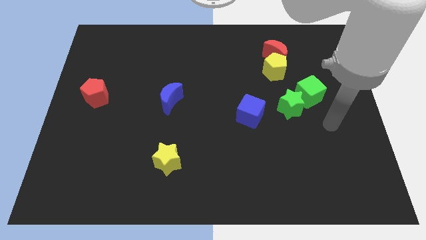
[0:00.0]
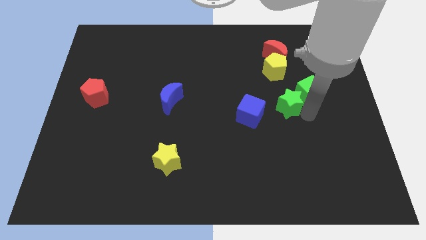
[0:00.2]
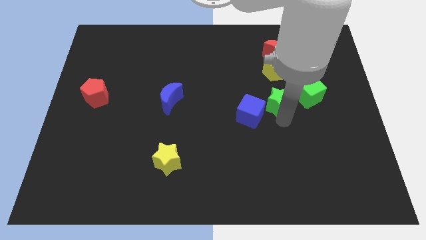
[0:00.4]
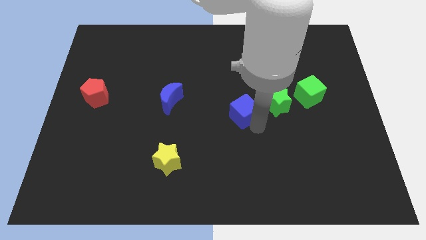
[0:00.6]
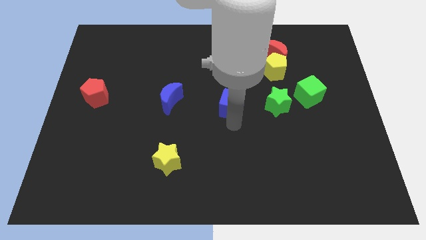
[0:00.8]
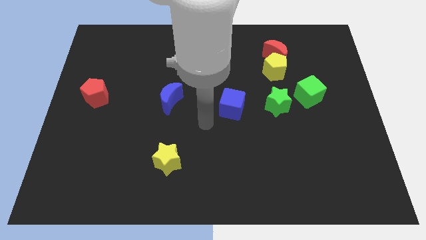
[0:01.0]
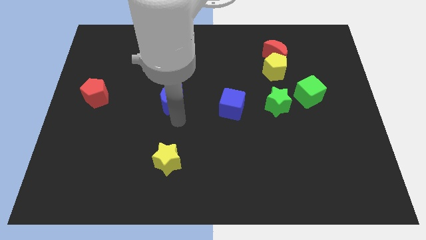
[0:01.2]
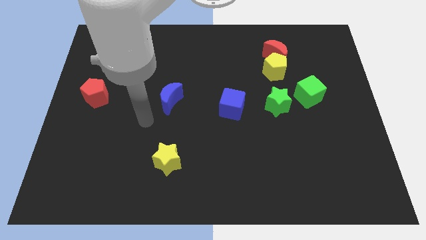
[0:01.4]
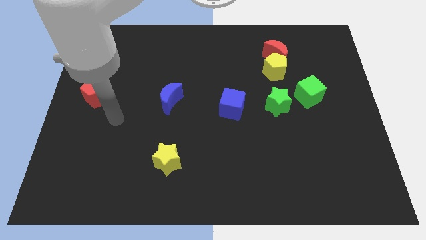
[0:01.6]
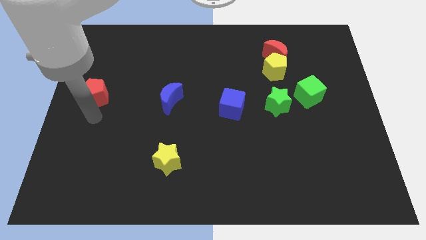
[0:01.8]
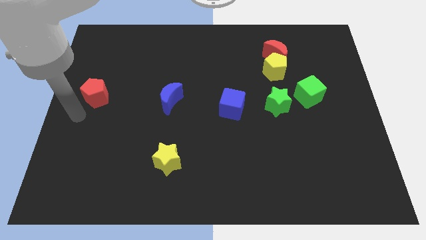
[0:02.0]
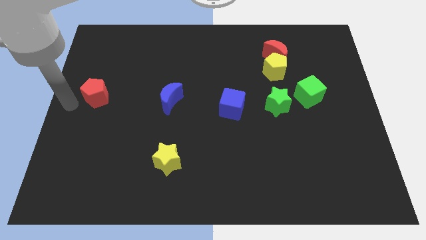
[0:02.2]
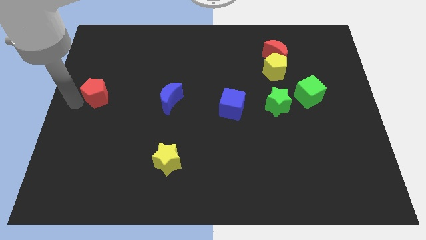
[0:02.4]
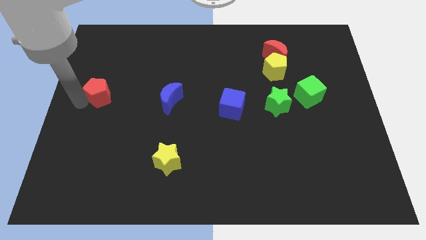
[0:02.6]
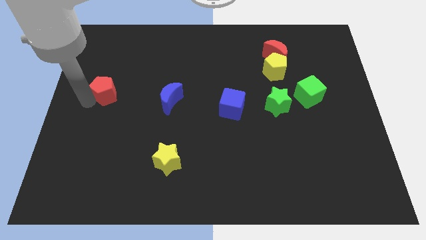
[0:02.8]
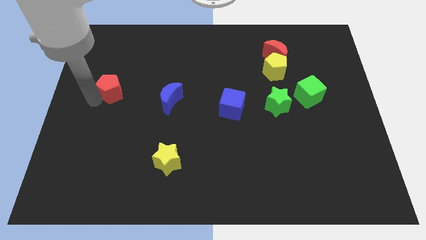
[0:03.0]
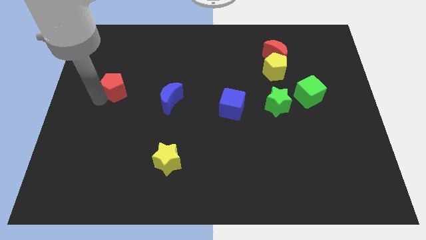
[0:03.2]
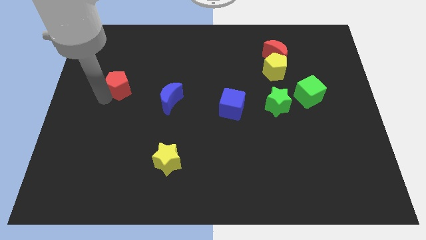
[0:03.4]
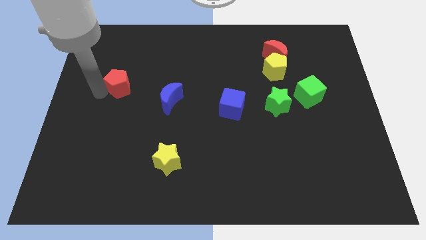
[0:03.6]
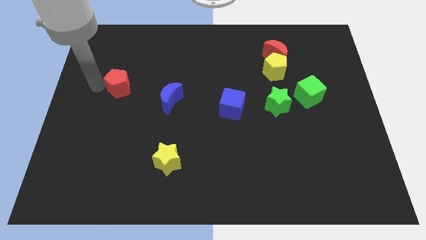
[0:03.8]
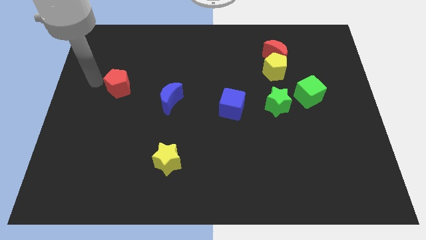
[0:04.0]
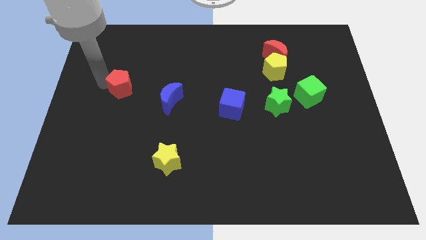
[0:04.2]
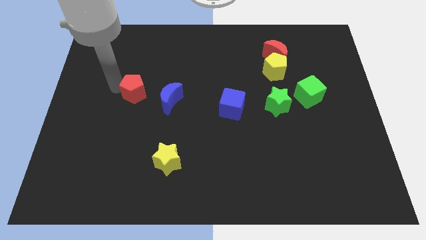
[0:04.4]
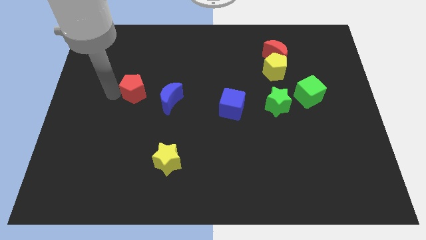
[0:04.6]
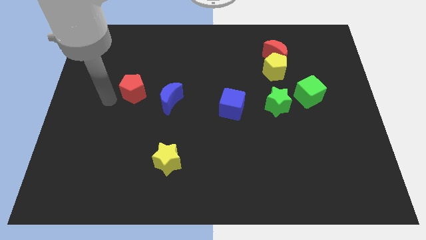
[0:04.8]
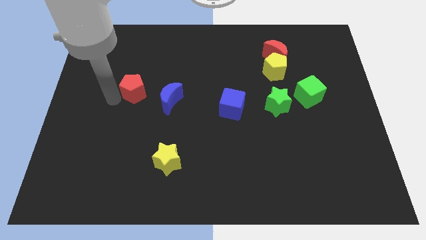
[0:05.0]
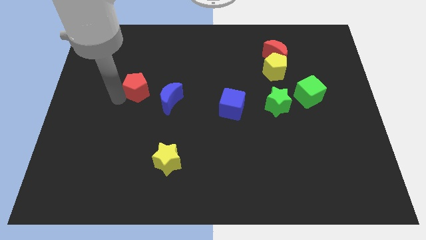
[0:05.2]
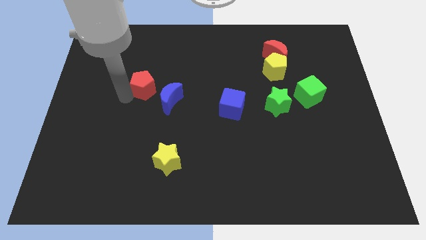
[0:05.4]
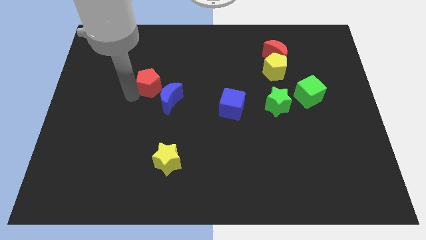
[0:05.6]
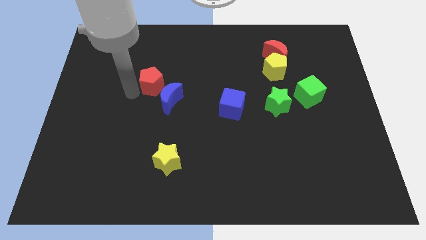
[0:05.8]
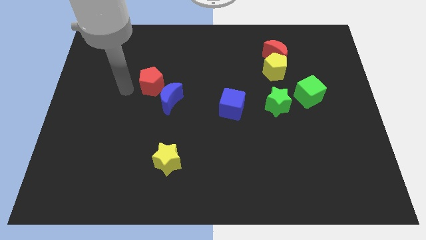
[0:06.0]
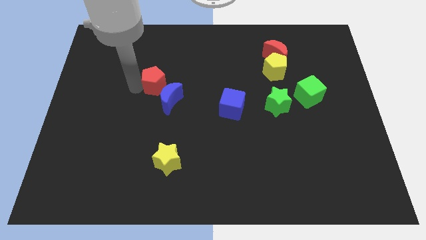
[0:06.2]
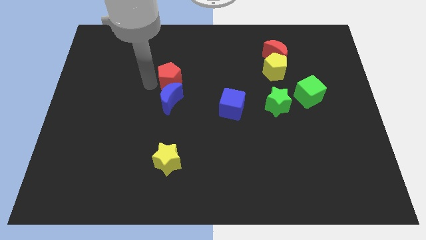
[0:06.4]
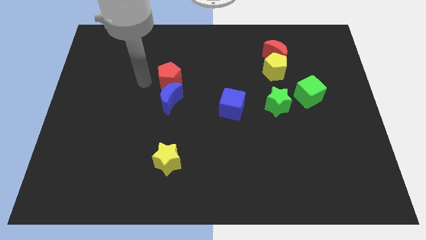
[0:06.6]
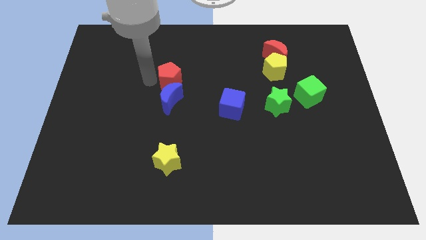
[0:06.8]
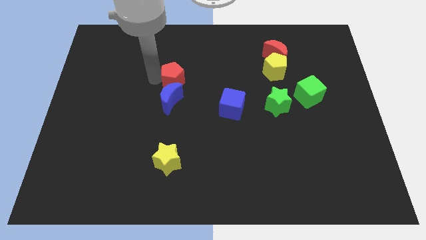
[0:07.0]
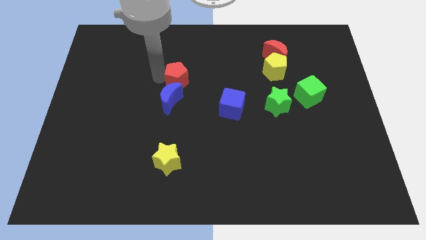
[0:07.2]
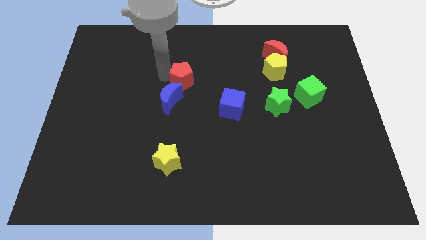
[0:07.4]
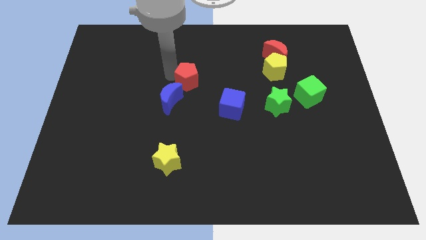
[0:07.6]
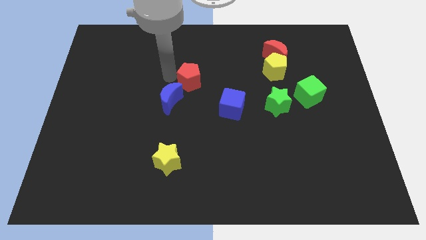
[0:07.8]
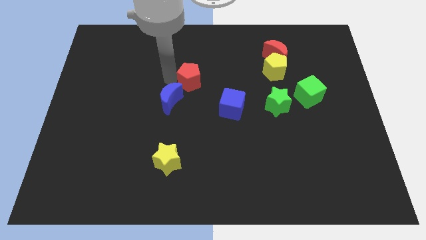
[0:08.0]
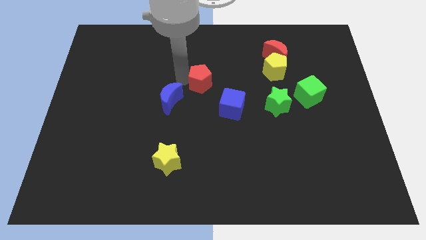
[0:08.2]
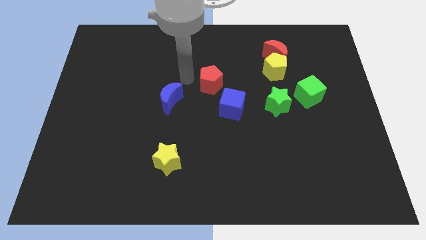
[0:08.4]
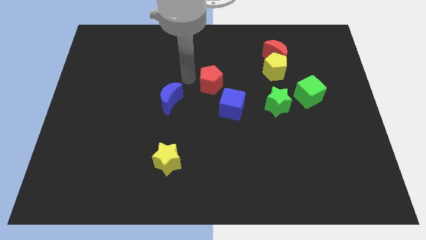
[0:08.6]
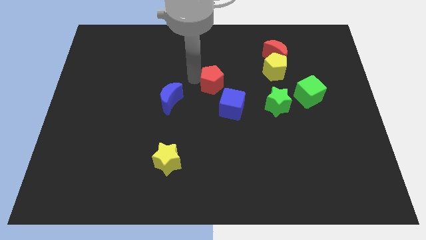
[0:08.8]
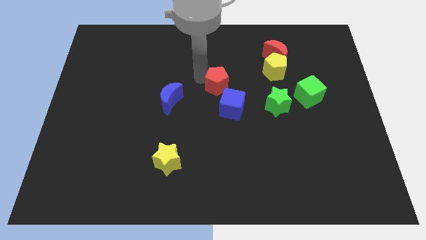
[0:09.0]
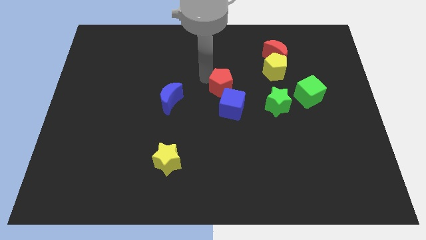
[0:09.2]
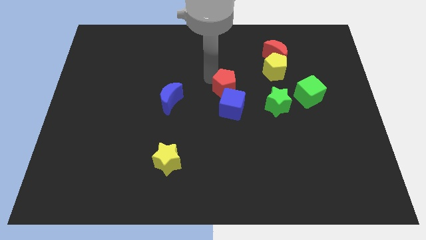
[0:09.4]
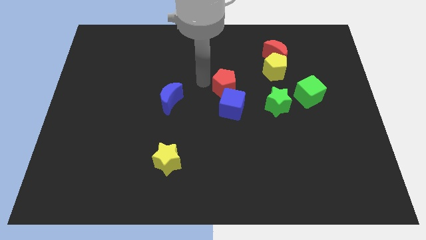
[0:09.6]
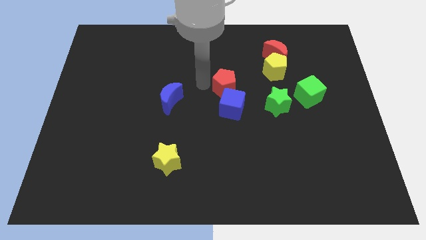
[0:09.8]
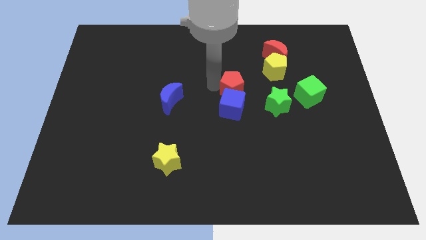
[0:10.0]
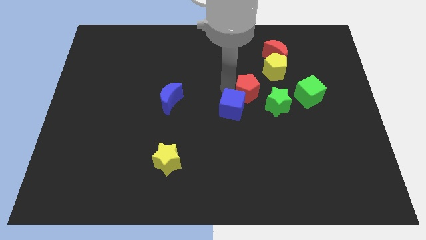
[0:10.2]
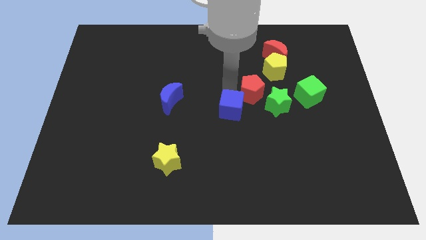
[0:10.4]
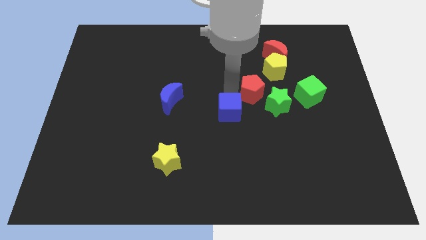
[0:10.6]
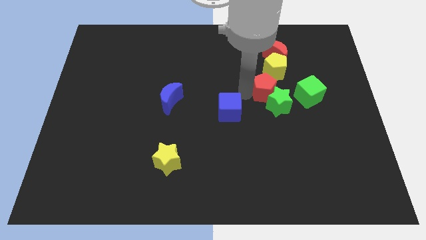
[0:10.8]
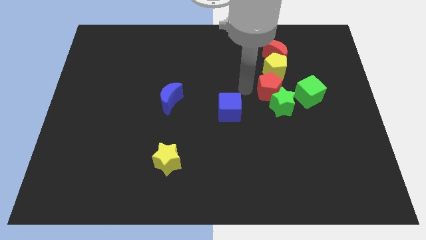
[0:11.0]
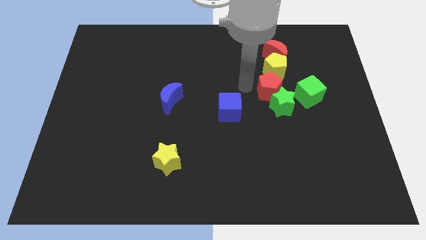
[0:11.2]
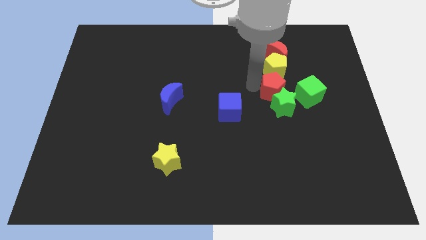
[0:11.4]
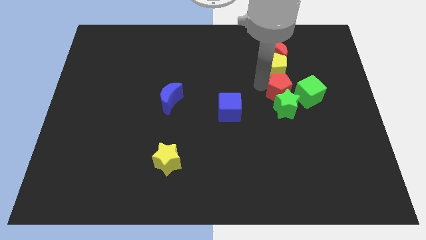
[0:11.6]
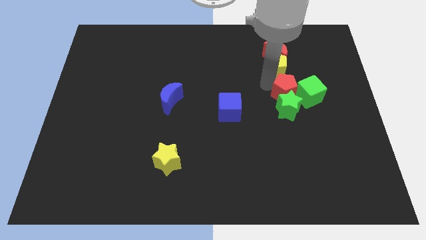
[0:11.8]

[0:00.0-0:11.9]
move the red pentagon close to the green cube

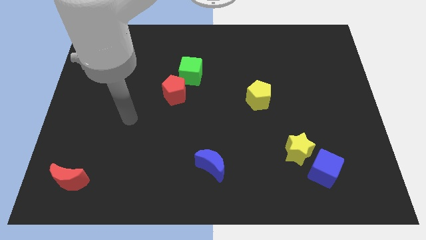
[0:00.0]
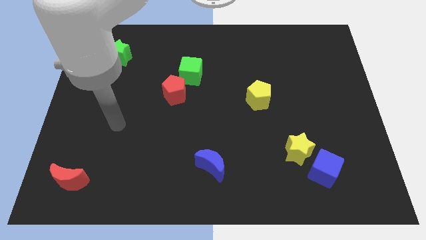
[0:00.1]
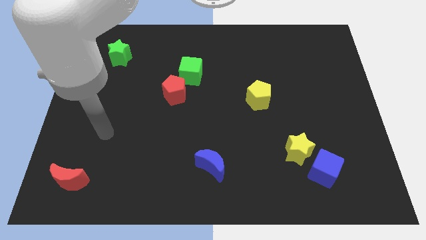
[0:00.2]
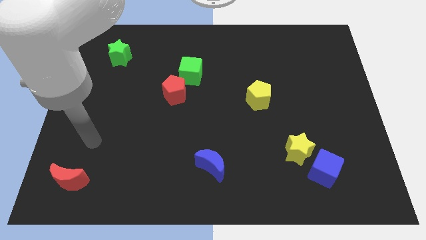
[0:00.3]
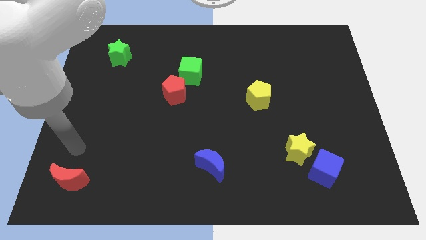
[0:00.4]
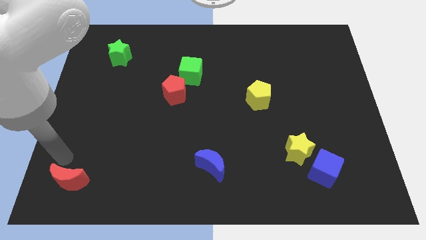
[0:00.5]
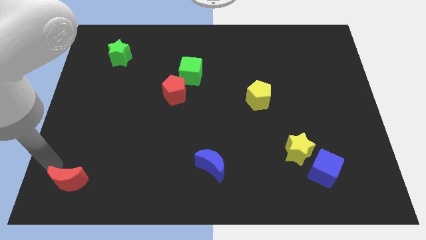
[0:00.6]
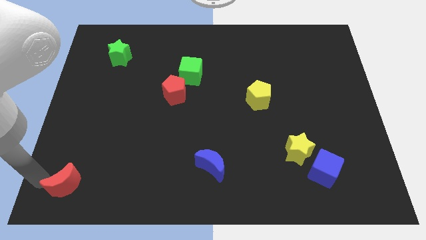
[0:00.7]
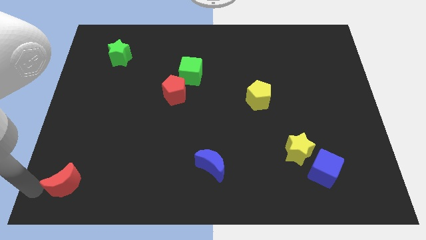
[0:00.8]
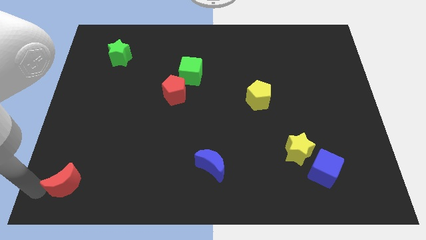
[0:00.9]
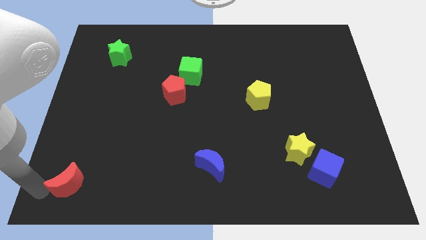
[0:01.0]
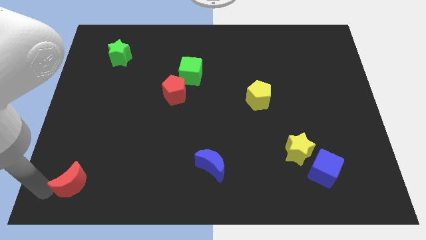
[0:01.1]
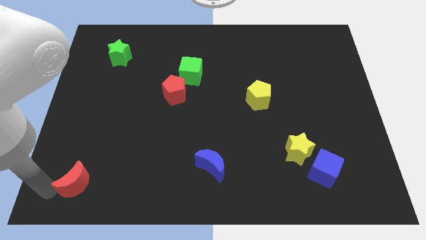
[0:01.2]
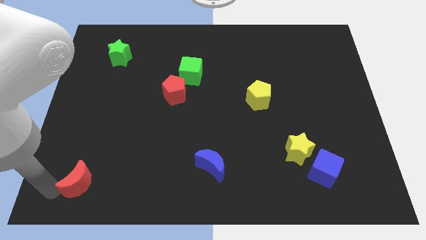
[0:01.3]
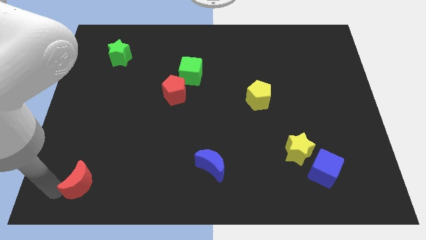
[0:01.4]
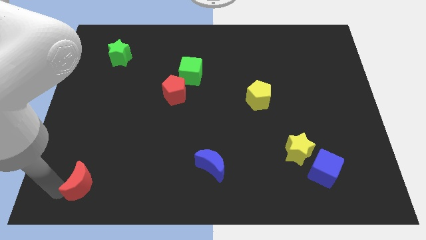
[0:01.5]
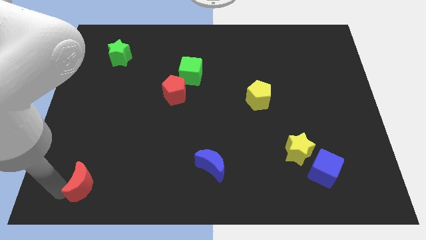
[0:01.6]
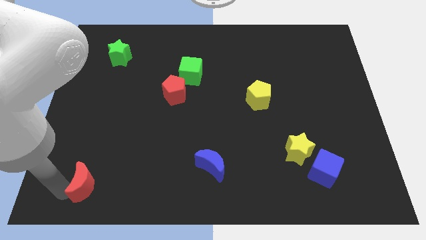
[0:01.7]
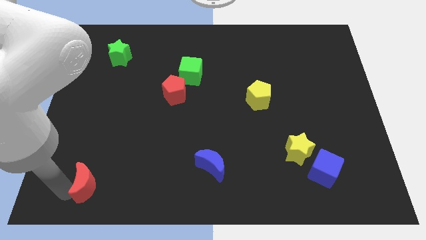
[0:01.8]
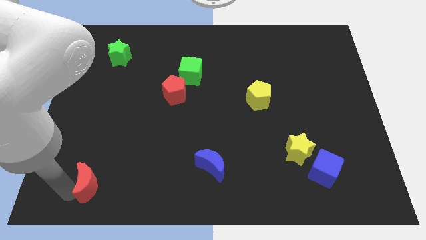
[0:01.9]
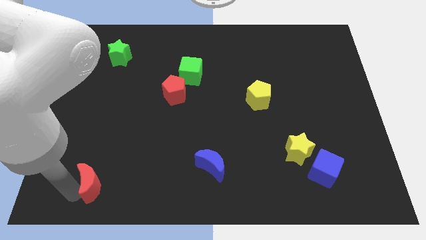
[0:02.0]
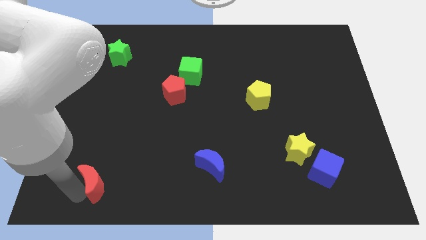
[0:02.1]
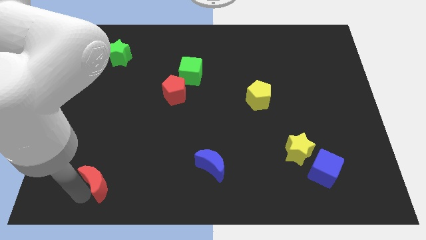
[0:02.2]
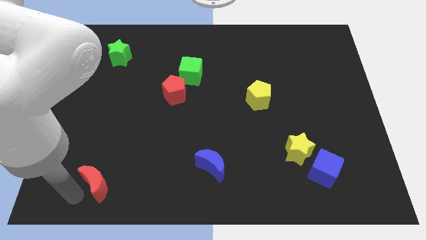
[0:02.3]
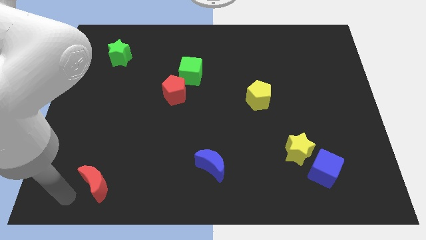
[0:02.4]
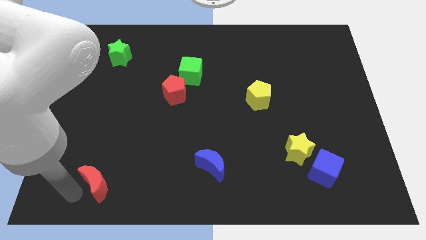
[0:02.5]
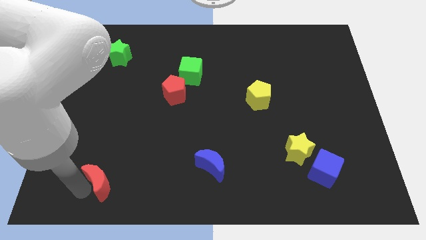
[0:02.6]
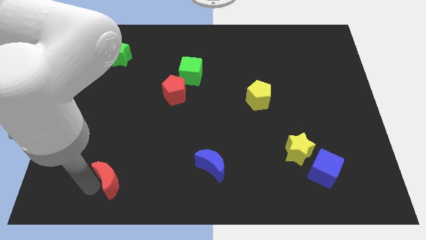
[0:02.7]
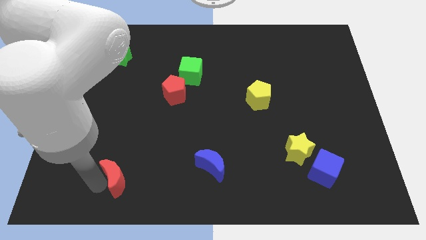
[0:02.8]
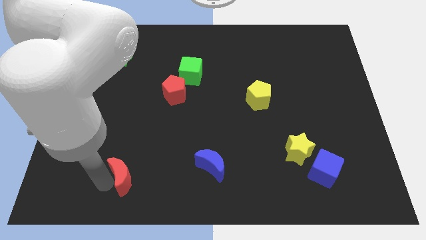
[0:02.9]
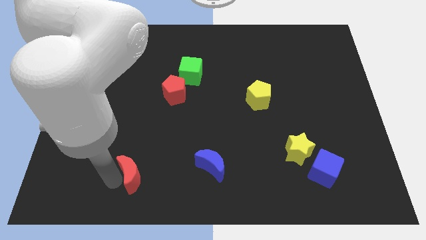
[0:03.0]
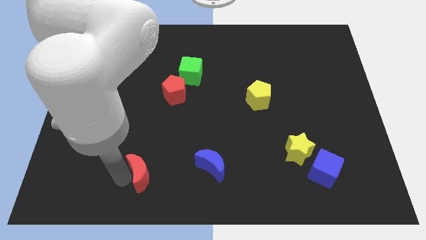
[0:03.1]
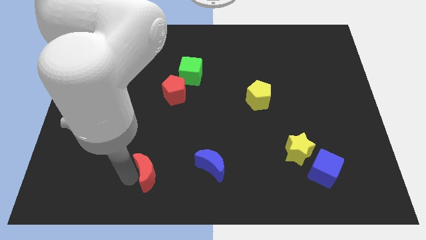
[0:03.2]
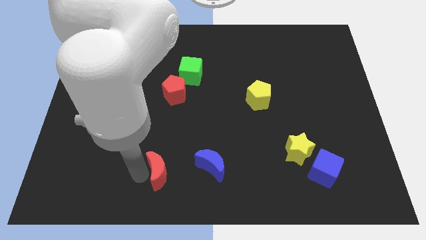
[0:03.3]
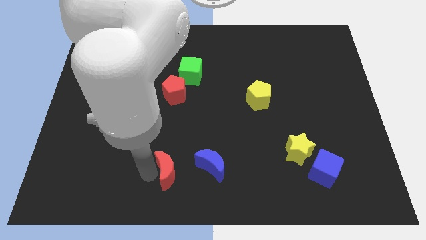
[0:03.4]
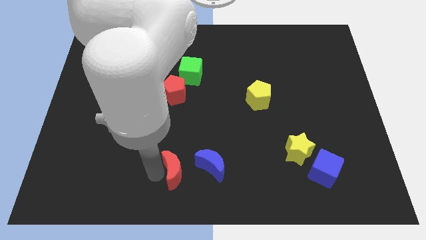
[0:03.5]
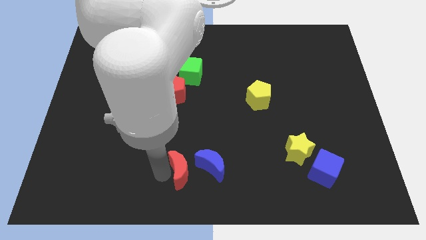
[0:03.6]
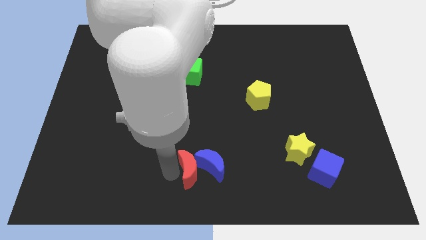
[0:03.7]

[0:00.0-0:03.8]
slide the red moon close to the blue moon
